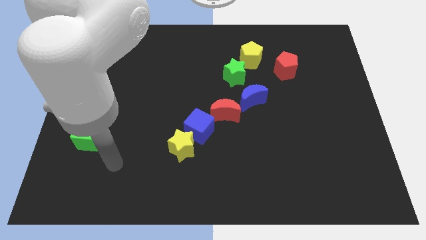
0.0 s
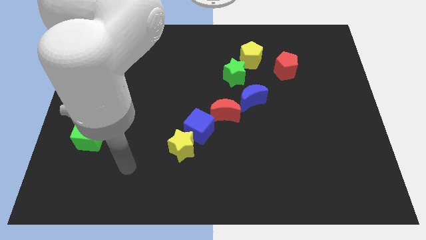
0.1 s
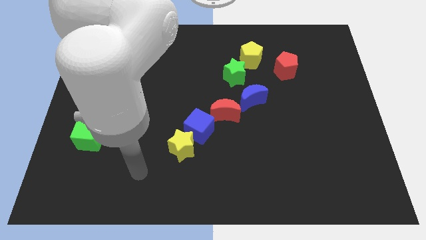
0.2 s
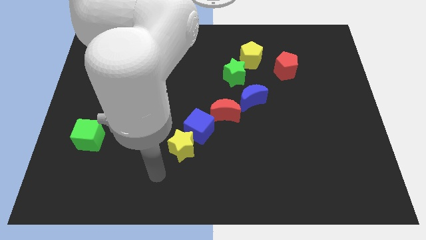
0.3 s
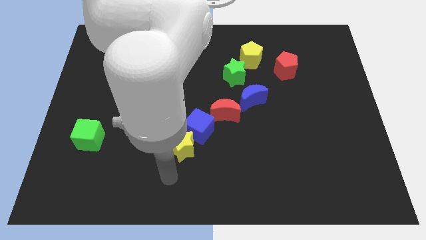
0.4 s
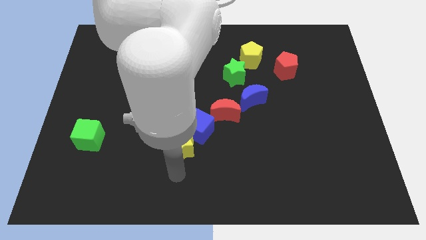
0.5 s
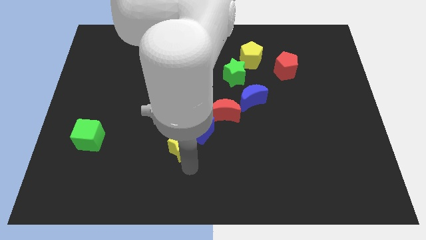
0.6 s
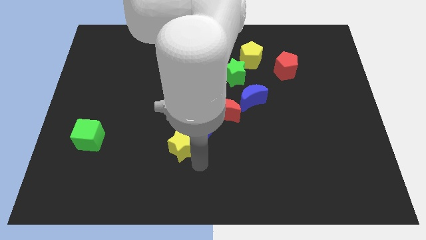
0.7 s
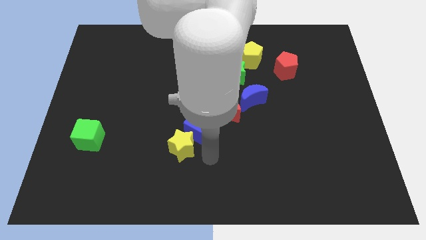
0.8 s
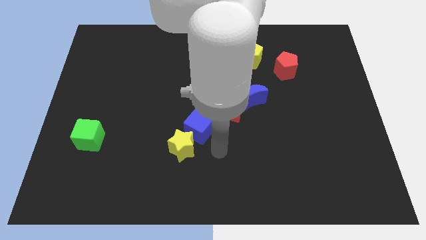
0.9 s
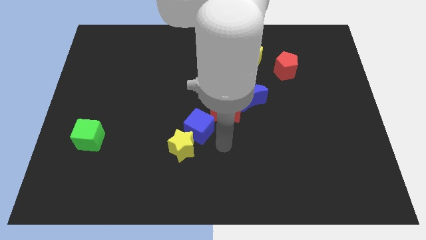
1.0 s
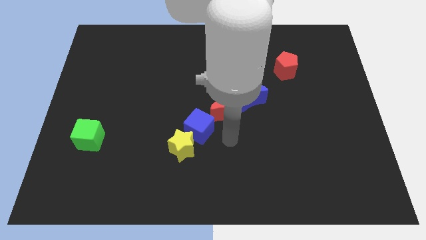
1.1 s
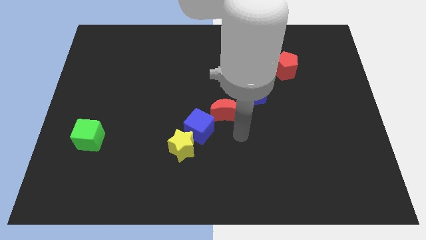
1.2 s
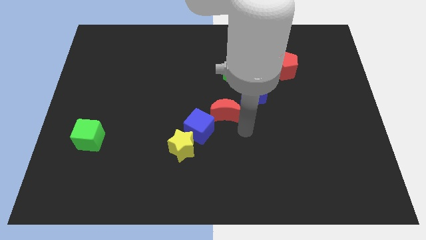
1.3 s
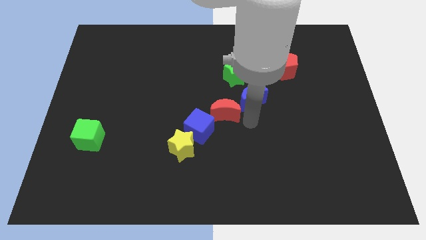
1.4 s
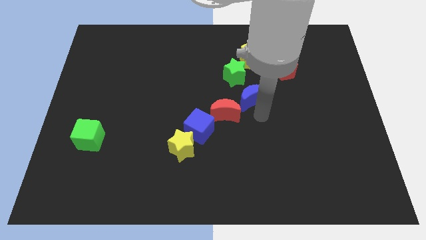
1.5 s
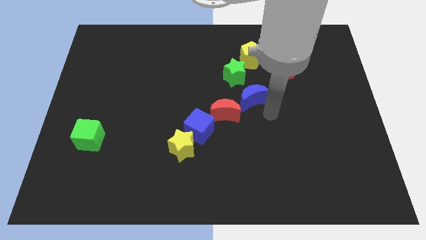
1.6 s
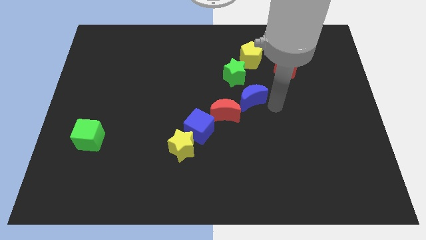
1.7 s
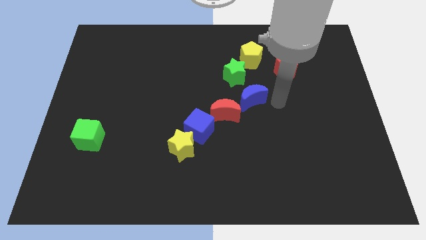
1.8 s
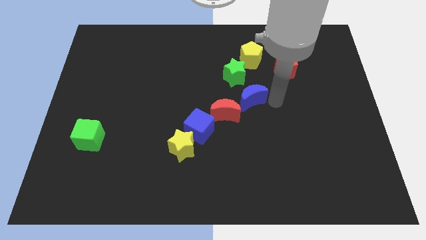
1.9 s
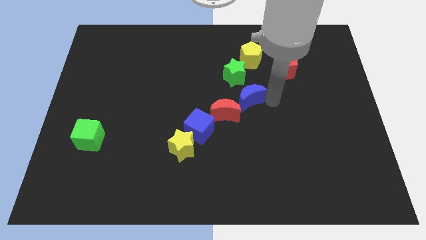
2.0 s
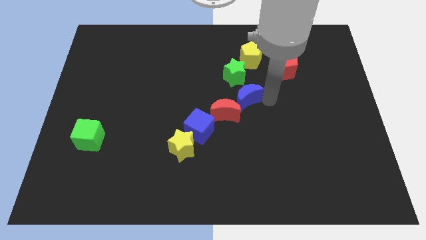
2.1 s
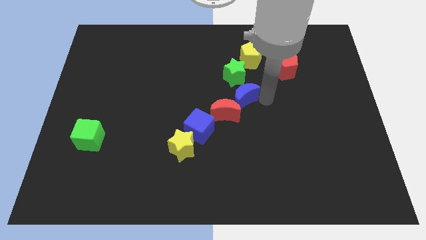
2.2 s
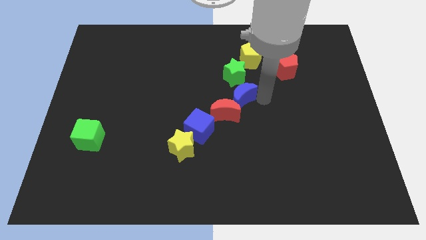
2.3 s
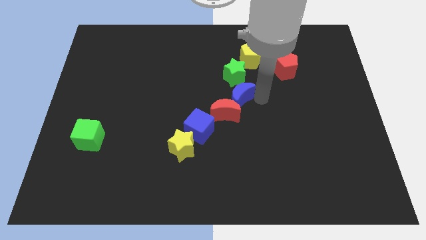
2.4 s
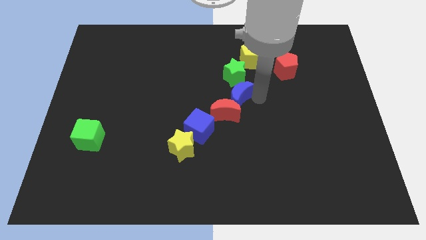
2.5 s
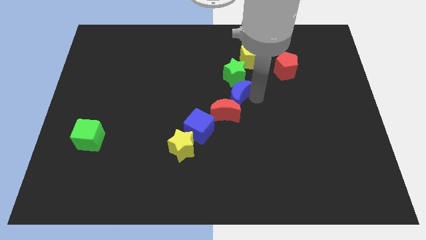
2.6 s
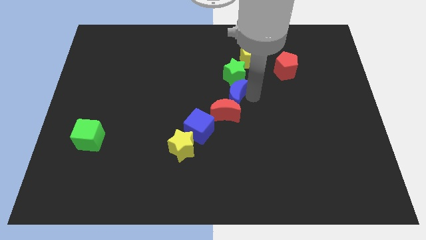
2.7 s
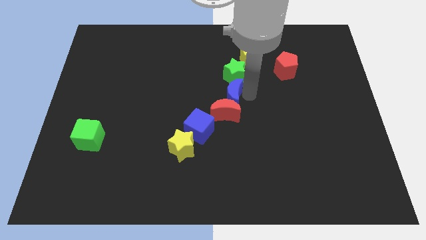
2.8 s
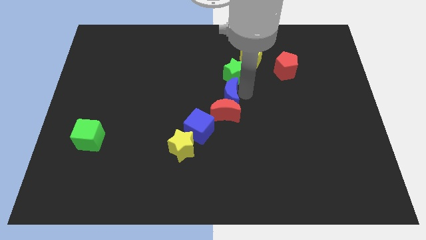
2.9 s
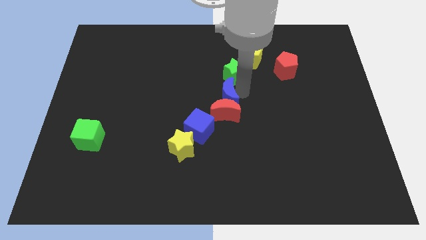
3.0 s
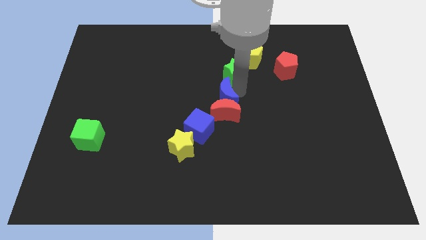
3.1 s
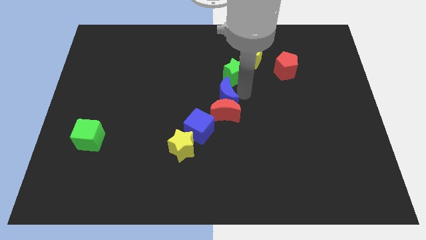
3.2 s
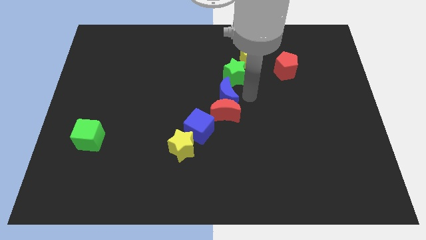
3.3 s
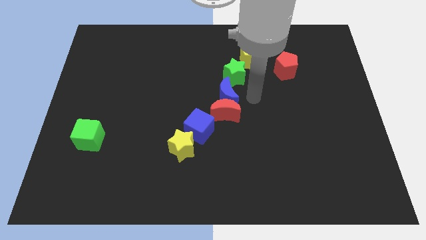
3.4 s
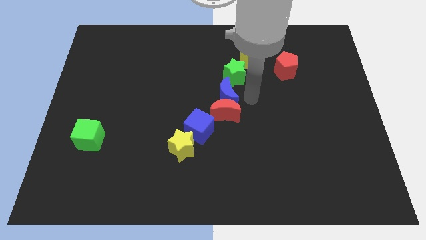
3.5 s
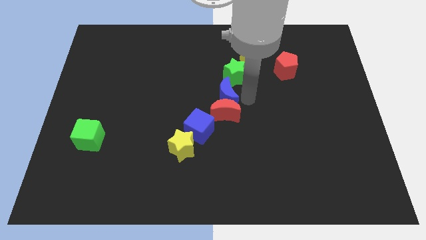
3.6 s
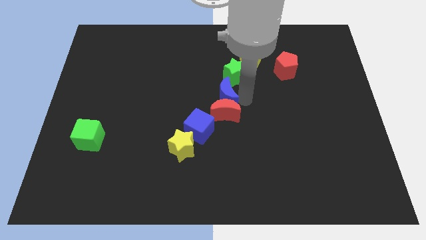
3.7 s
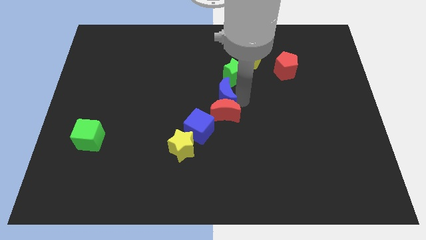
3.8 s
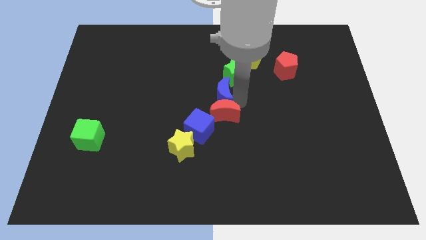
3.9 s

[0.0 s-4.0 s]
push the blue moon left somewhat

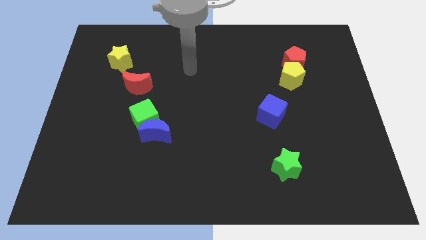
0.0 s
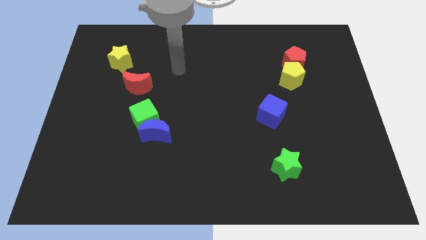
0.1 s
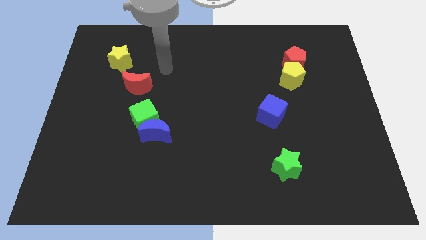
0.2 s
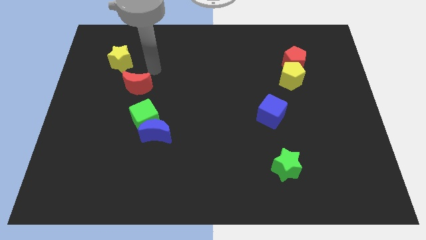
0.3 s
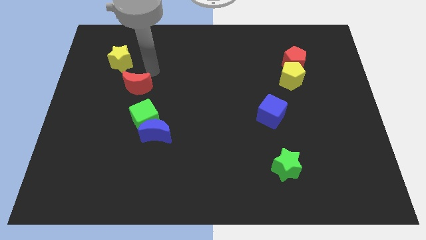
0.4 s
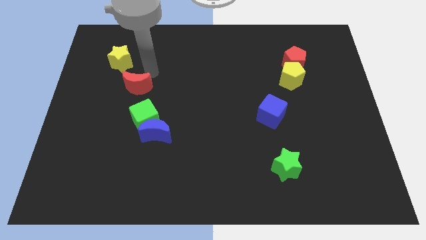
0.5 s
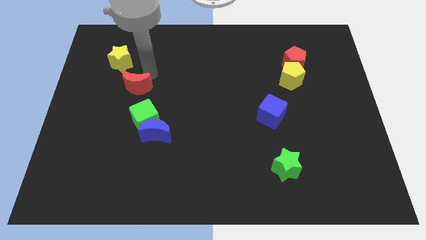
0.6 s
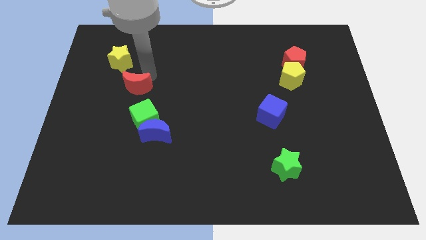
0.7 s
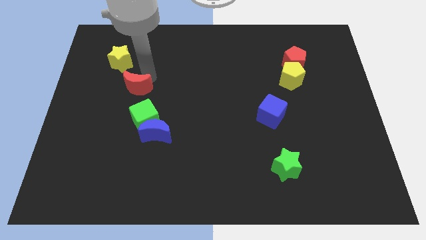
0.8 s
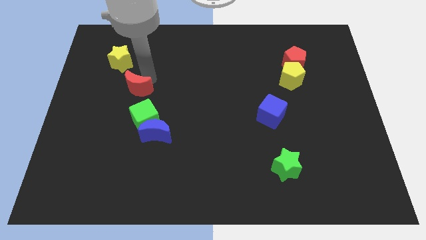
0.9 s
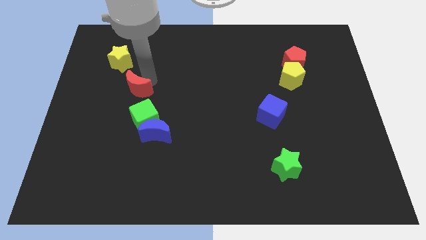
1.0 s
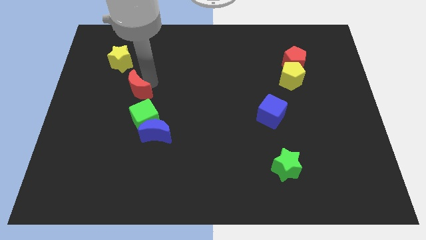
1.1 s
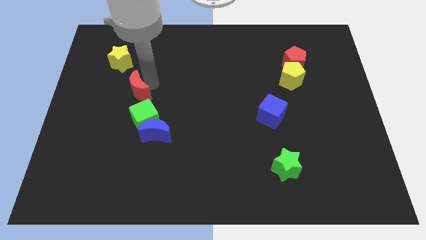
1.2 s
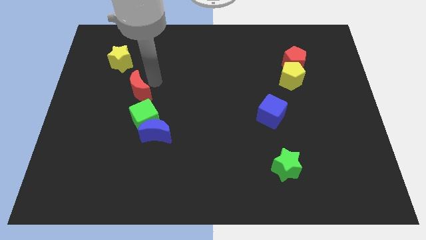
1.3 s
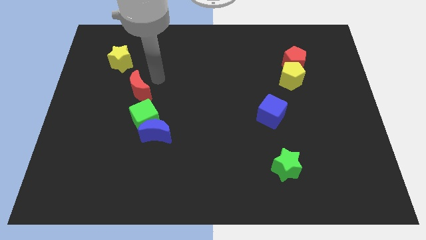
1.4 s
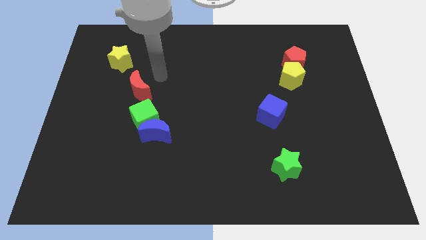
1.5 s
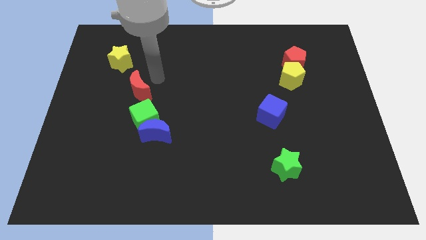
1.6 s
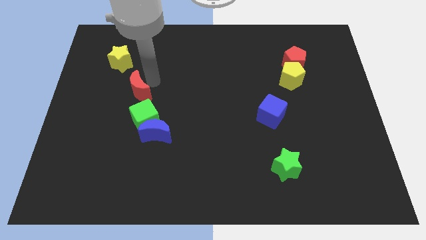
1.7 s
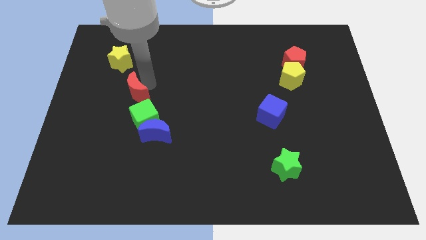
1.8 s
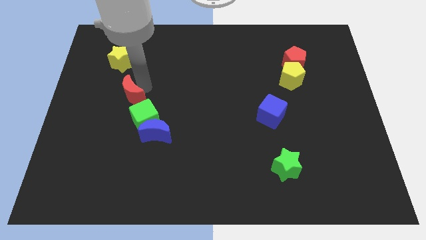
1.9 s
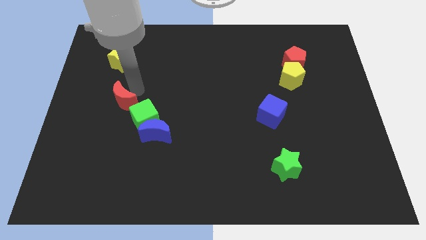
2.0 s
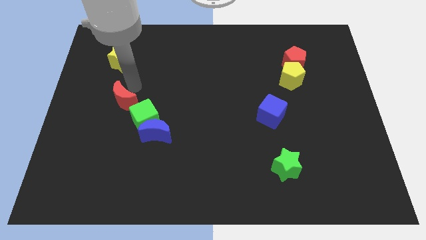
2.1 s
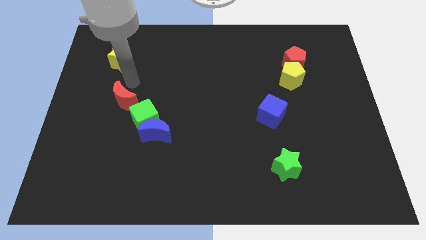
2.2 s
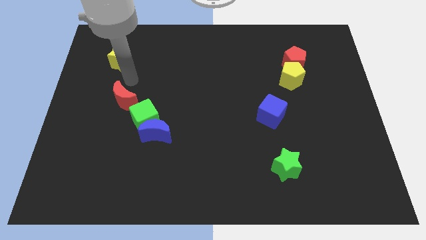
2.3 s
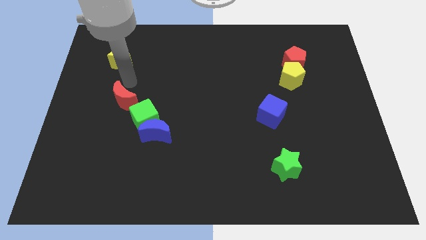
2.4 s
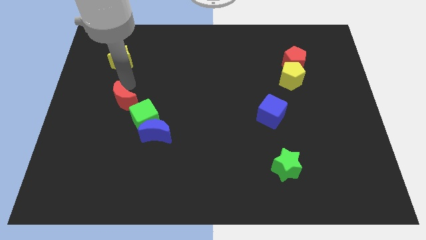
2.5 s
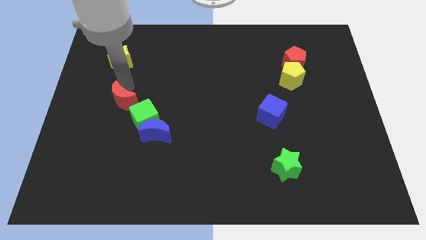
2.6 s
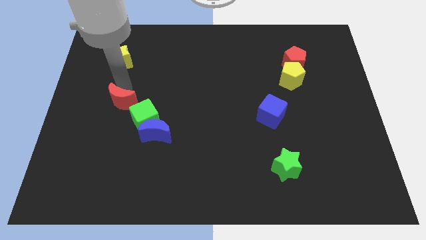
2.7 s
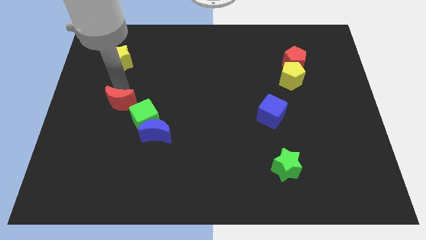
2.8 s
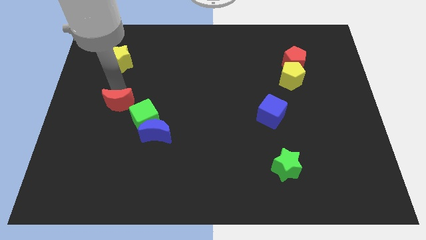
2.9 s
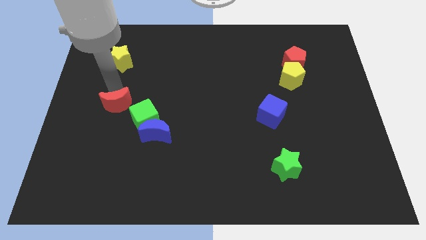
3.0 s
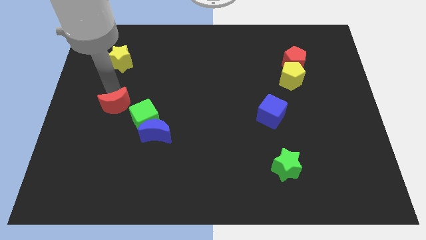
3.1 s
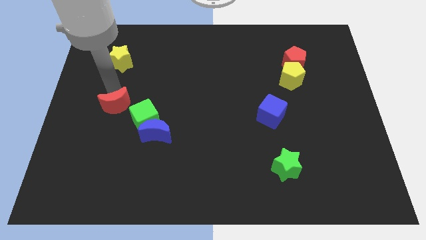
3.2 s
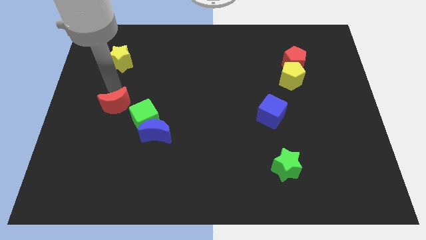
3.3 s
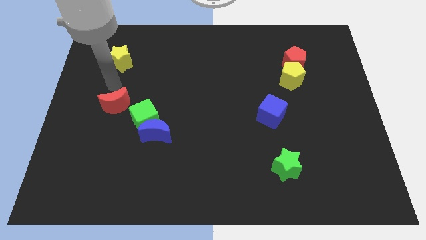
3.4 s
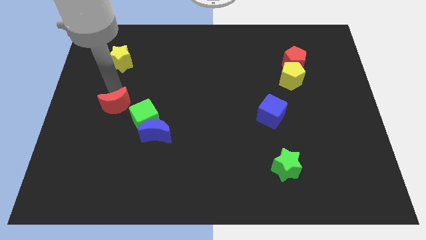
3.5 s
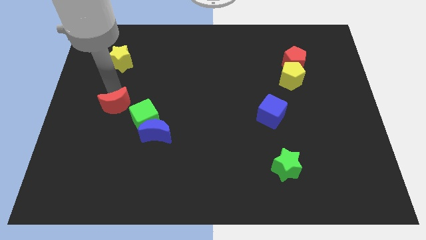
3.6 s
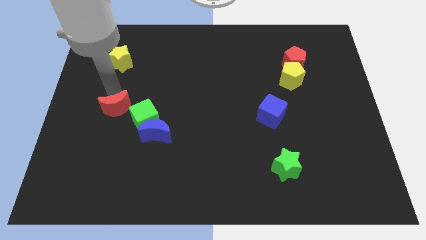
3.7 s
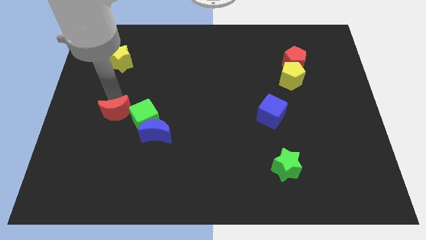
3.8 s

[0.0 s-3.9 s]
slide the red moon a little bit down

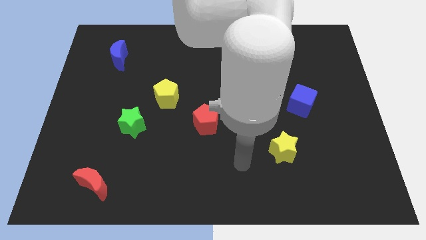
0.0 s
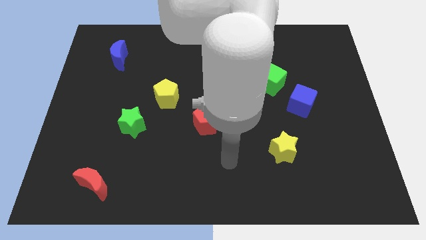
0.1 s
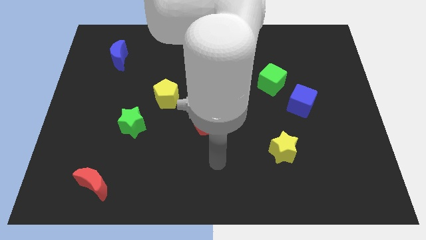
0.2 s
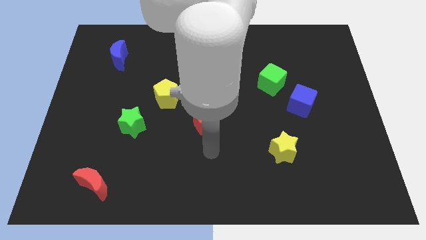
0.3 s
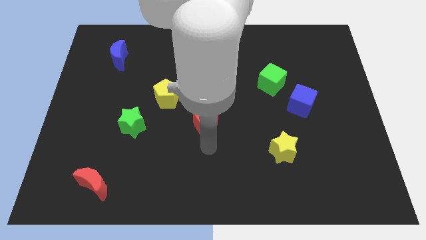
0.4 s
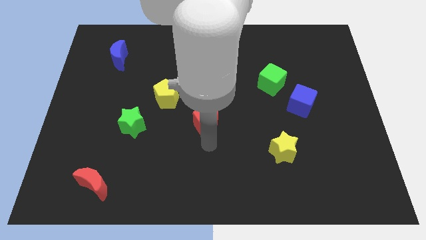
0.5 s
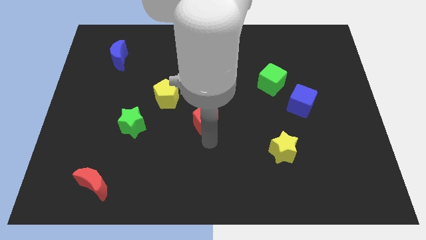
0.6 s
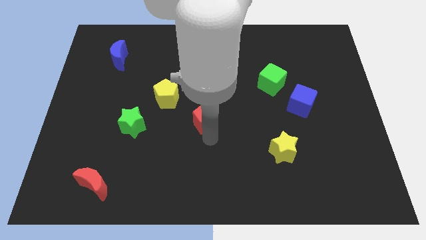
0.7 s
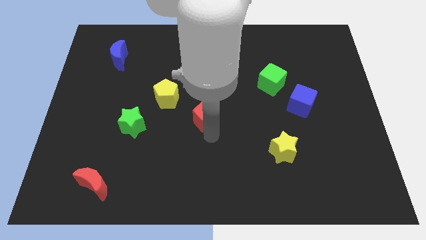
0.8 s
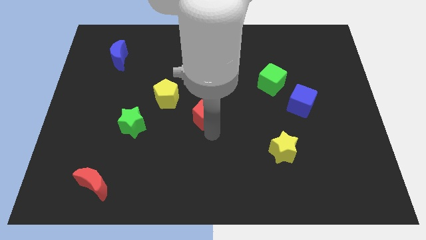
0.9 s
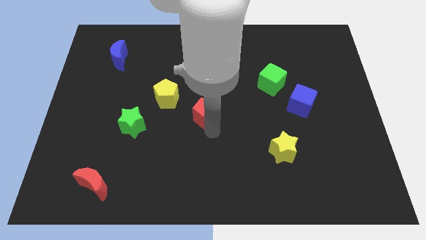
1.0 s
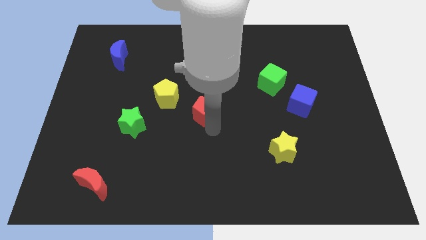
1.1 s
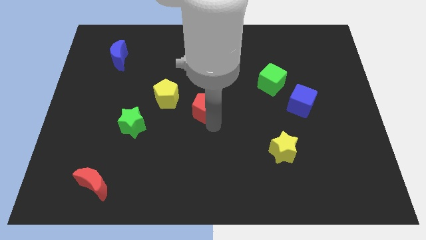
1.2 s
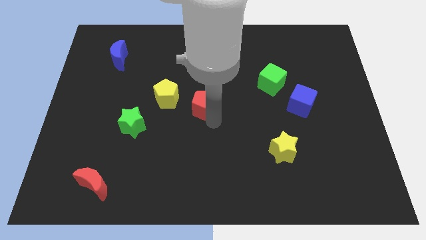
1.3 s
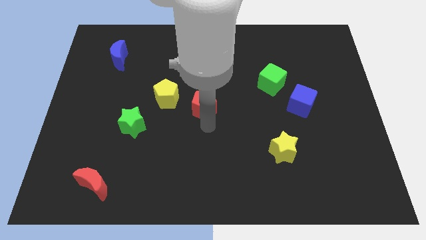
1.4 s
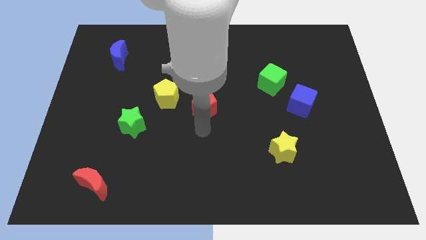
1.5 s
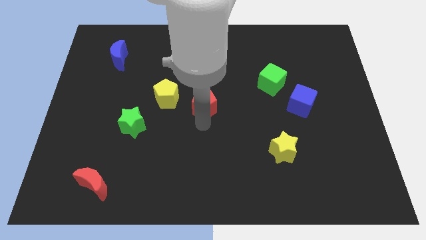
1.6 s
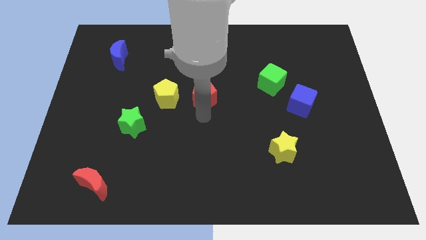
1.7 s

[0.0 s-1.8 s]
move the red pentagon a little upwards
